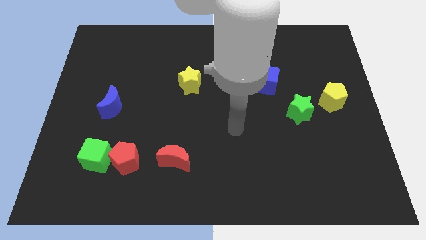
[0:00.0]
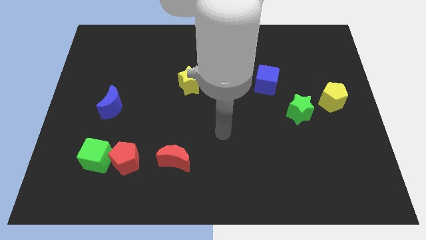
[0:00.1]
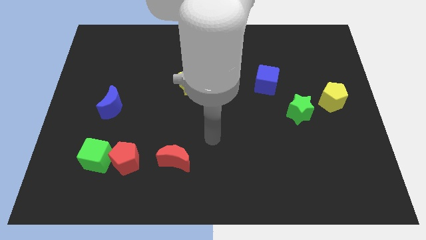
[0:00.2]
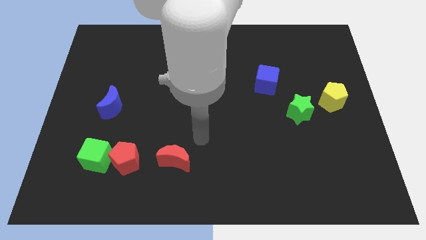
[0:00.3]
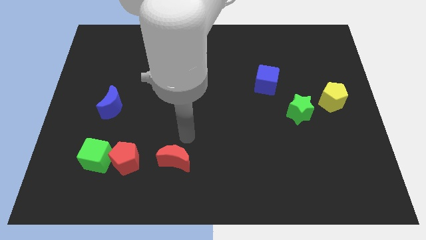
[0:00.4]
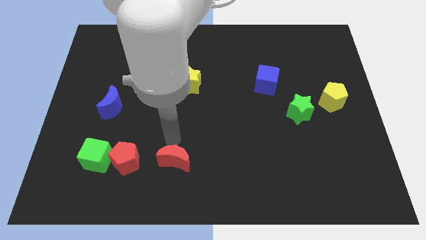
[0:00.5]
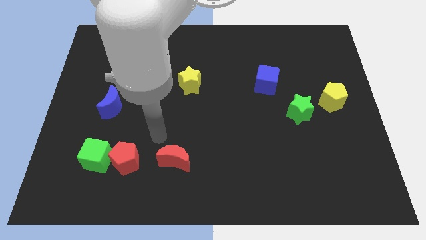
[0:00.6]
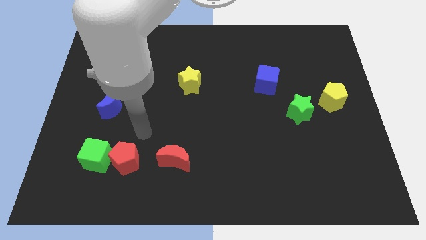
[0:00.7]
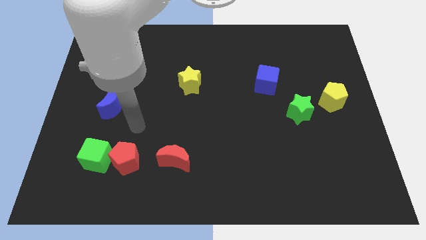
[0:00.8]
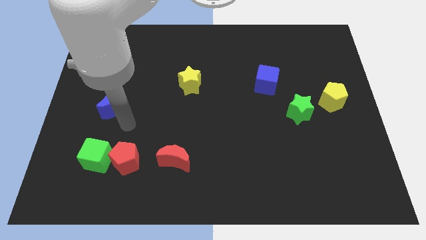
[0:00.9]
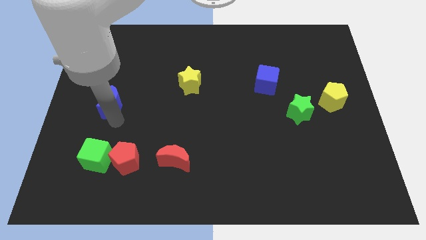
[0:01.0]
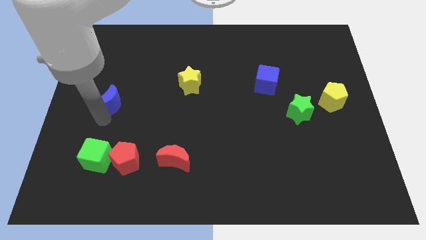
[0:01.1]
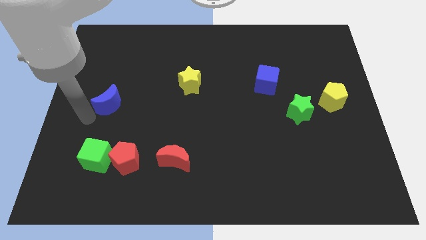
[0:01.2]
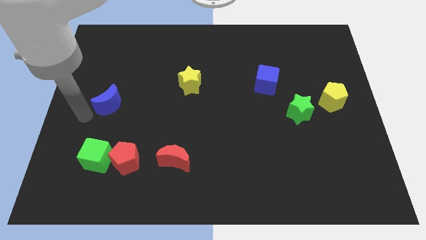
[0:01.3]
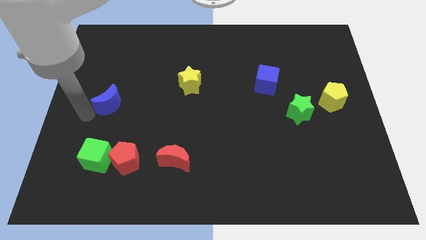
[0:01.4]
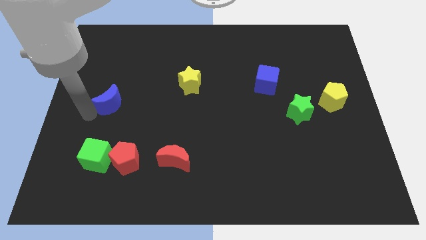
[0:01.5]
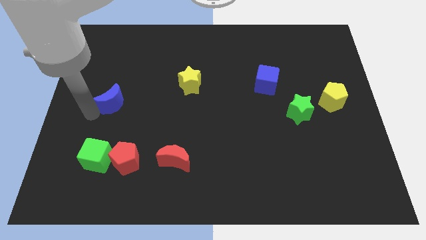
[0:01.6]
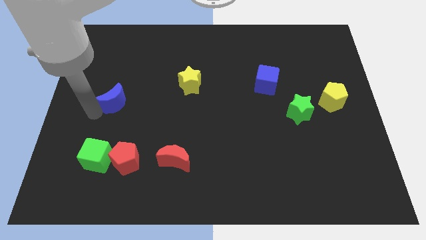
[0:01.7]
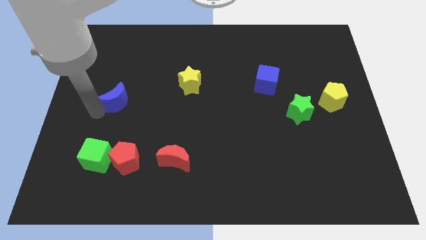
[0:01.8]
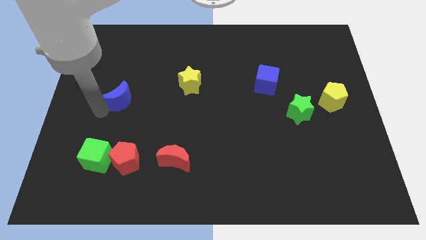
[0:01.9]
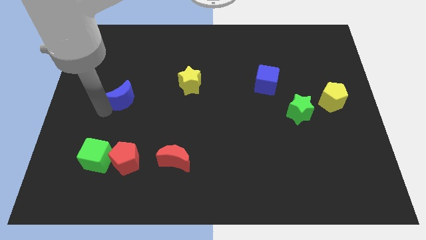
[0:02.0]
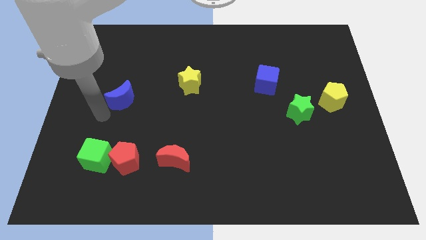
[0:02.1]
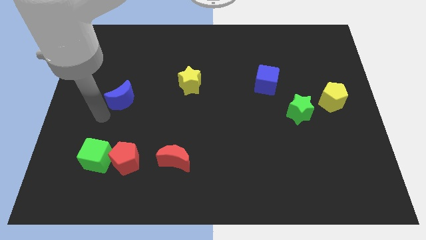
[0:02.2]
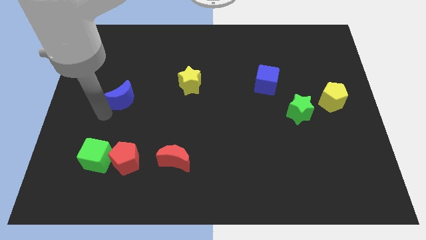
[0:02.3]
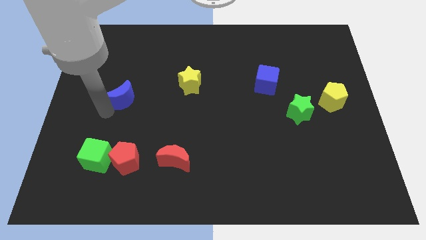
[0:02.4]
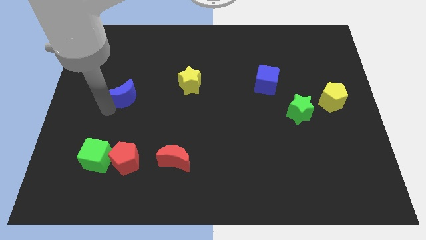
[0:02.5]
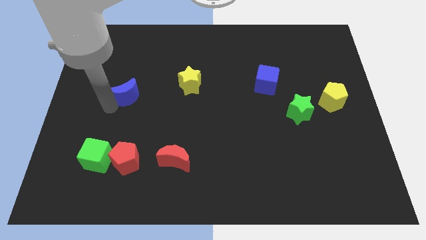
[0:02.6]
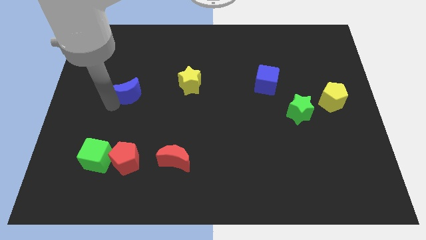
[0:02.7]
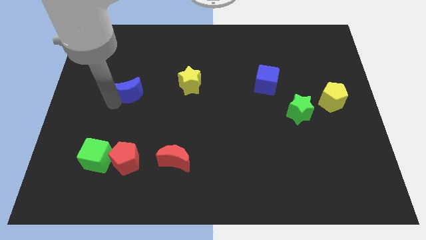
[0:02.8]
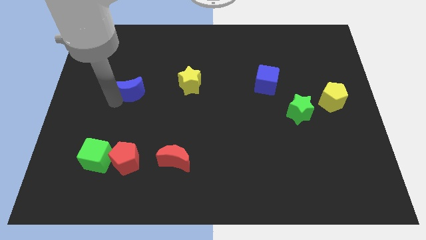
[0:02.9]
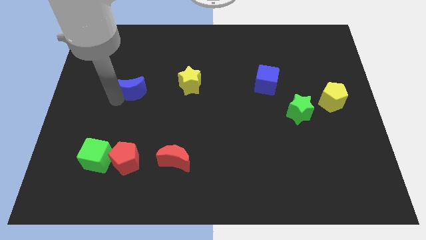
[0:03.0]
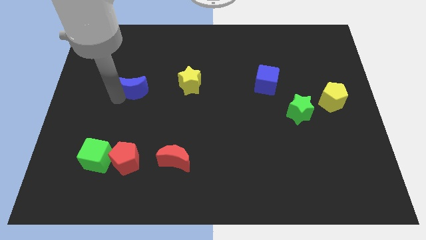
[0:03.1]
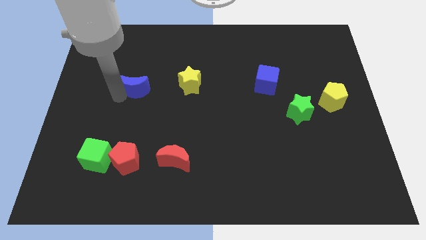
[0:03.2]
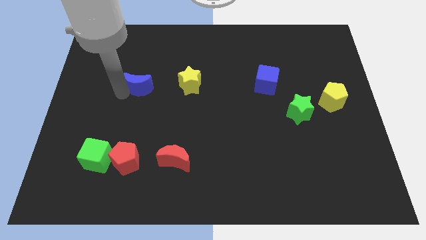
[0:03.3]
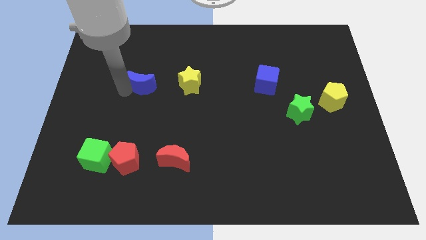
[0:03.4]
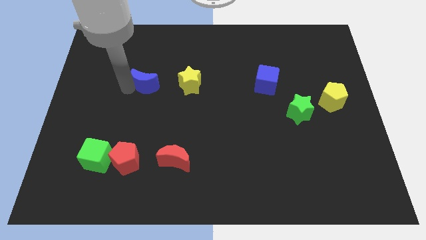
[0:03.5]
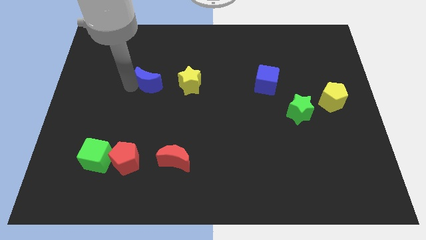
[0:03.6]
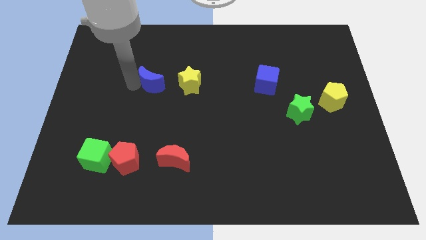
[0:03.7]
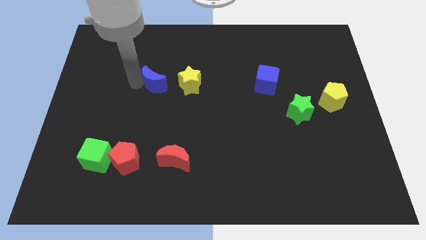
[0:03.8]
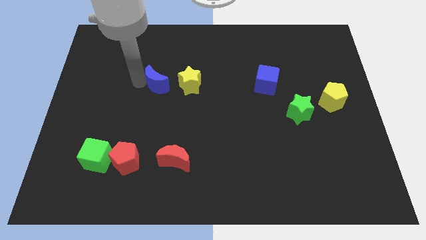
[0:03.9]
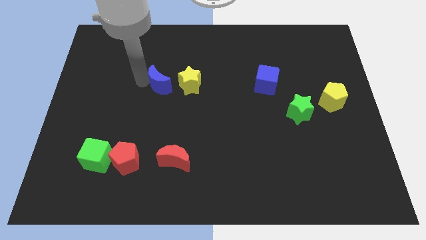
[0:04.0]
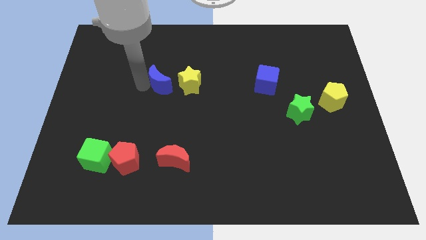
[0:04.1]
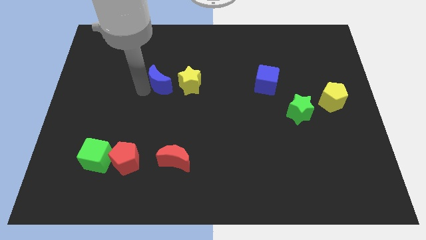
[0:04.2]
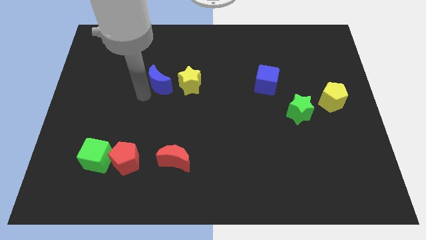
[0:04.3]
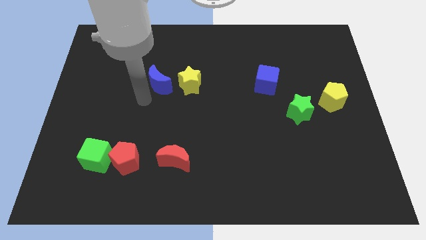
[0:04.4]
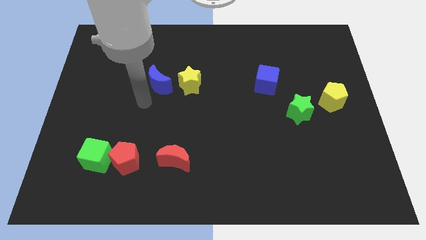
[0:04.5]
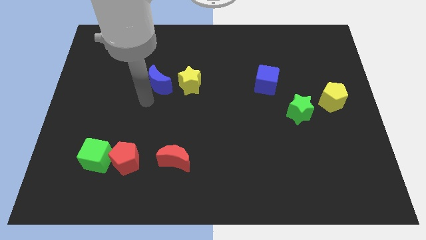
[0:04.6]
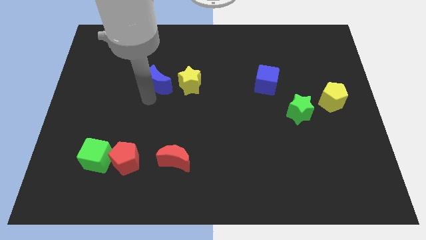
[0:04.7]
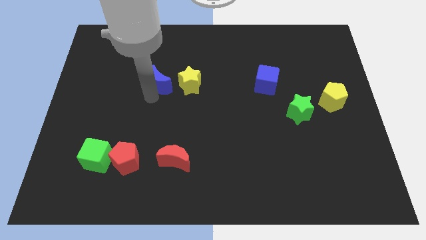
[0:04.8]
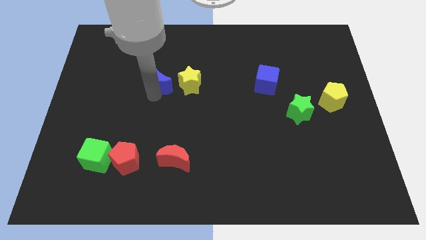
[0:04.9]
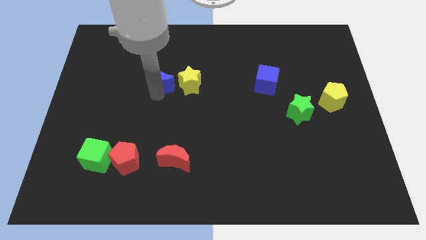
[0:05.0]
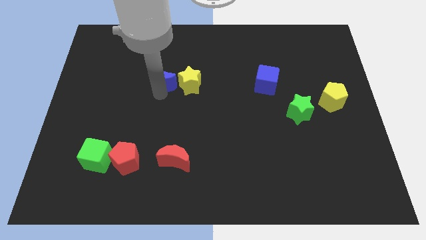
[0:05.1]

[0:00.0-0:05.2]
move the blue moon to the top left of the yellow star

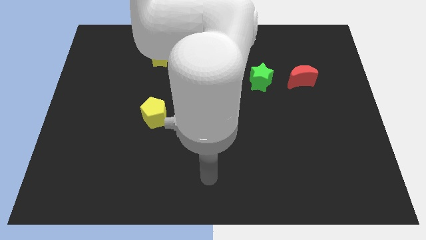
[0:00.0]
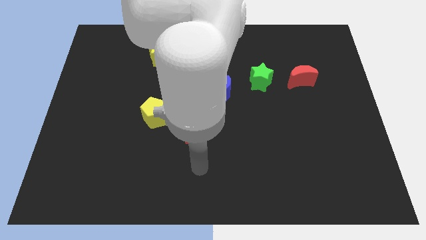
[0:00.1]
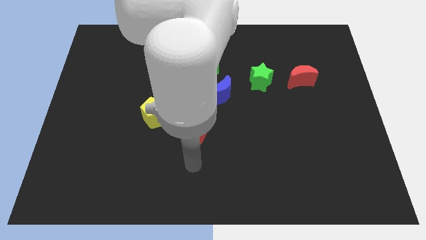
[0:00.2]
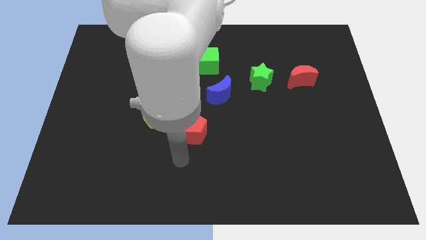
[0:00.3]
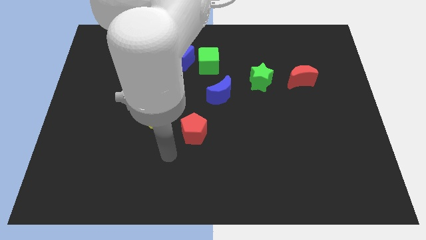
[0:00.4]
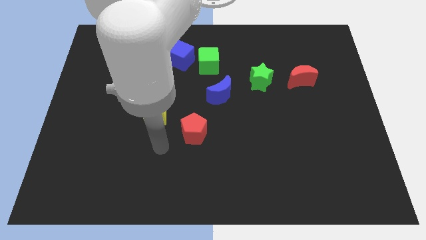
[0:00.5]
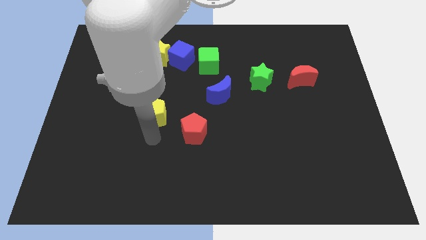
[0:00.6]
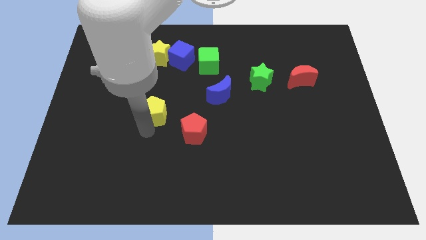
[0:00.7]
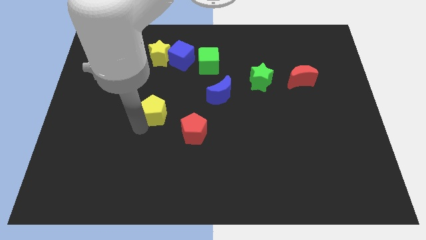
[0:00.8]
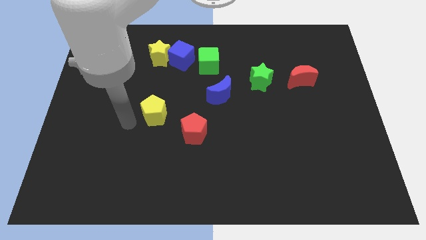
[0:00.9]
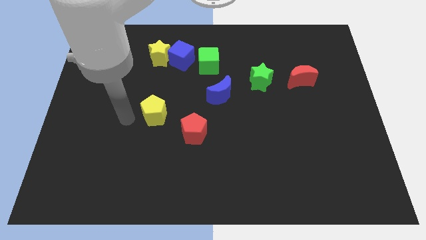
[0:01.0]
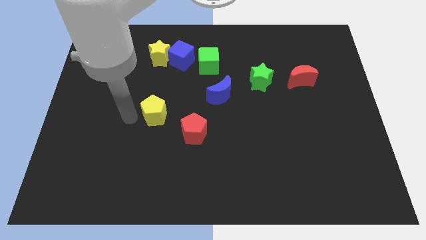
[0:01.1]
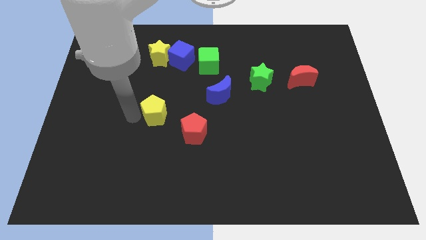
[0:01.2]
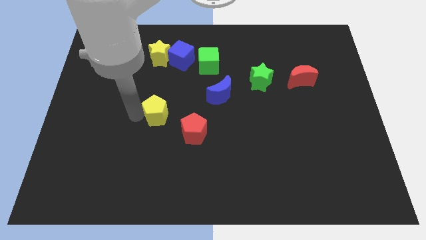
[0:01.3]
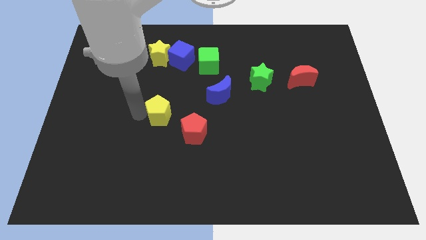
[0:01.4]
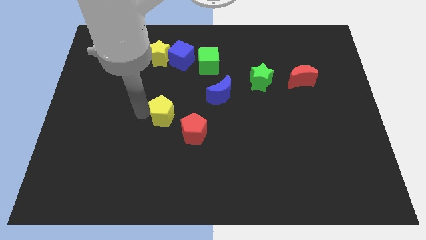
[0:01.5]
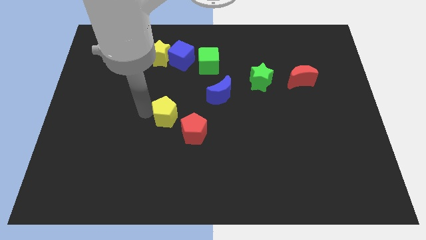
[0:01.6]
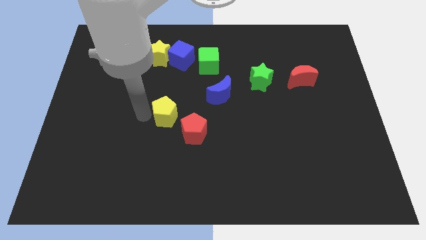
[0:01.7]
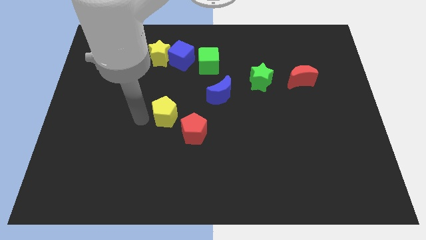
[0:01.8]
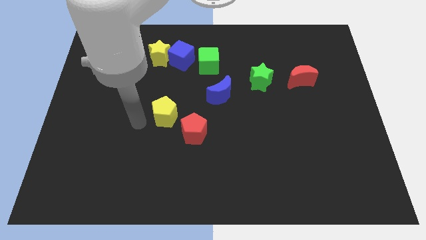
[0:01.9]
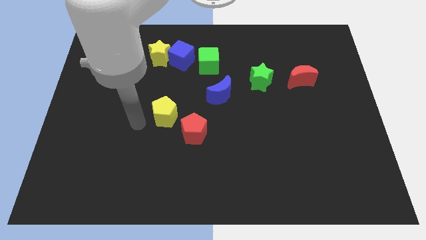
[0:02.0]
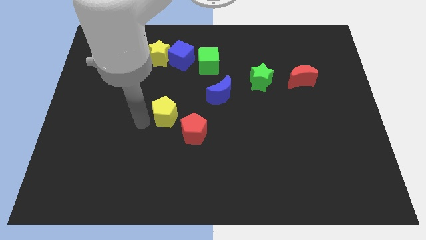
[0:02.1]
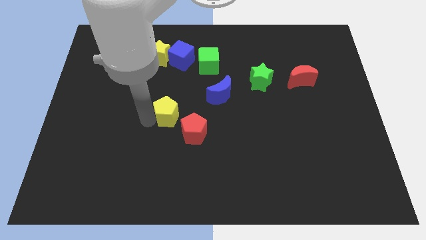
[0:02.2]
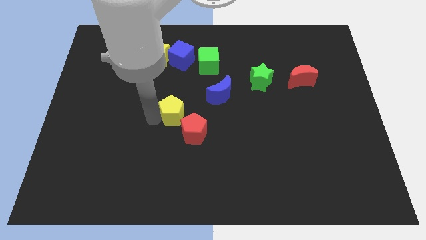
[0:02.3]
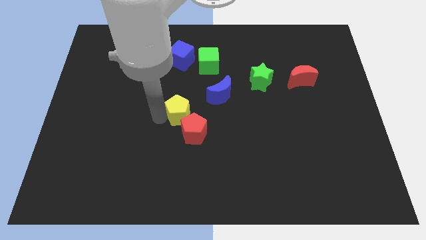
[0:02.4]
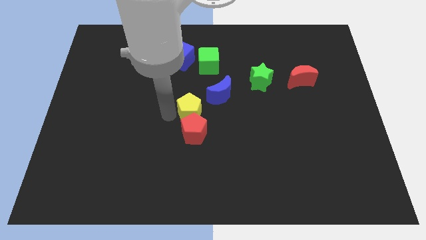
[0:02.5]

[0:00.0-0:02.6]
move the yellow pentagon to the top right side of the red pentagon
